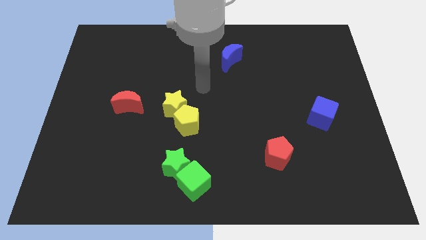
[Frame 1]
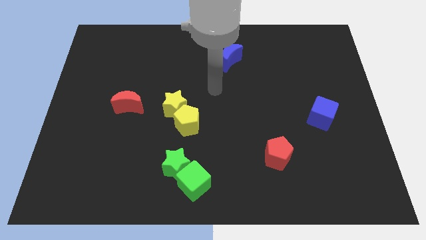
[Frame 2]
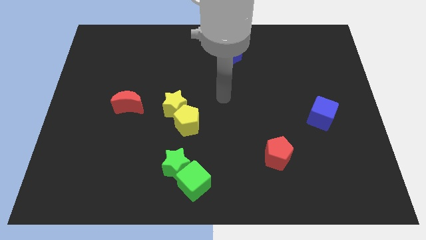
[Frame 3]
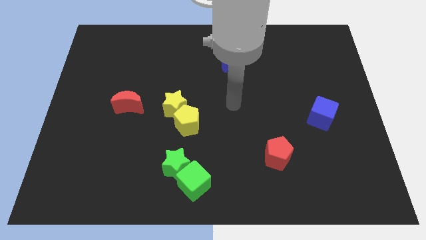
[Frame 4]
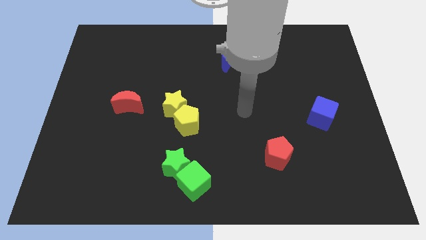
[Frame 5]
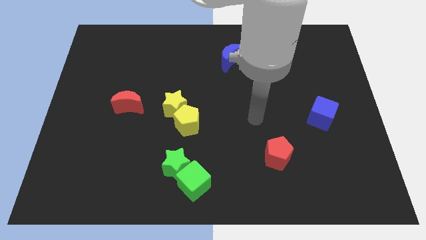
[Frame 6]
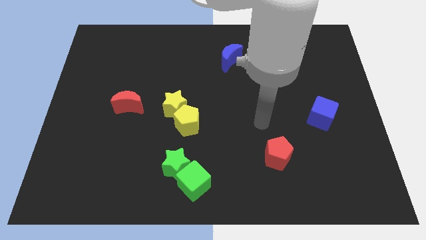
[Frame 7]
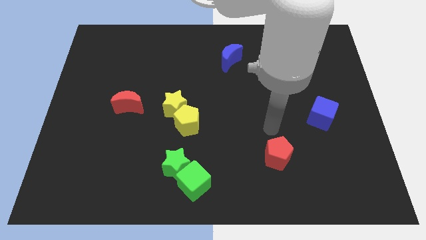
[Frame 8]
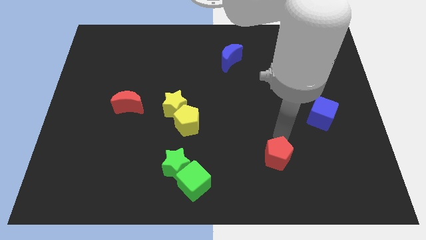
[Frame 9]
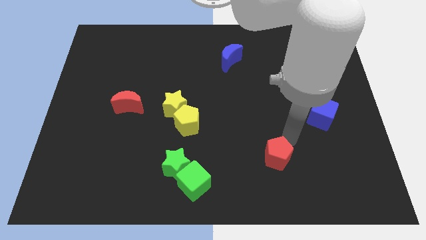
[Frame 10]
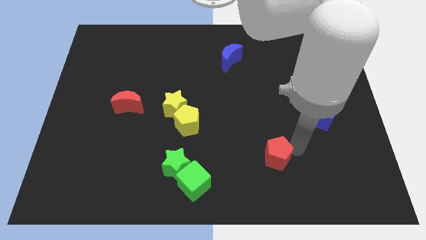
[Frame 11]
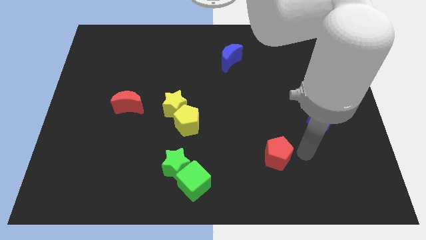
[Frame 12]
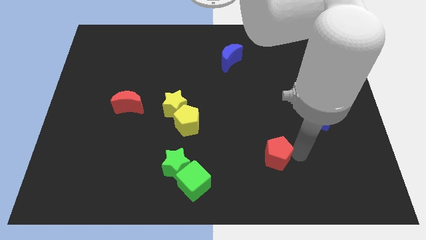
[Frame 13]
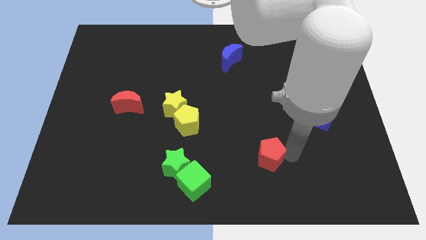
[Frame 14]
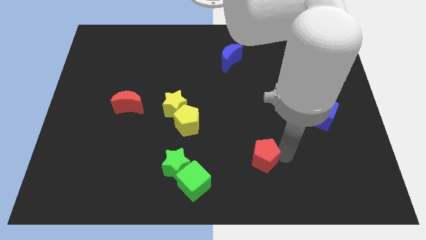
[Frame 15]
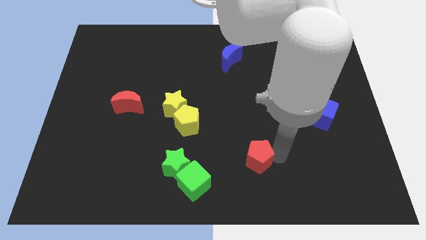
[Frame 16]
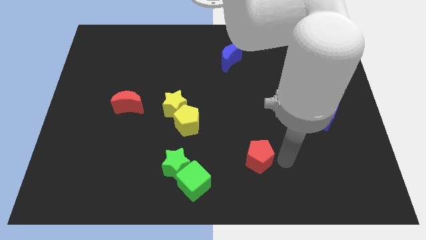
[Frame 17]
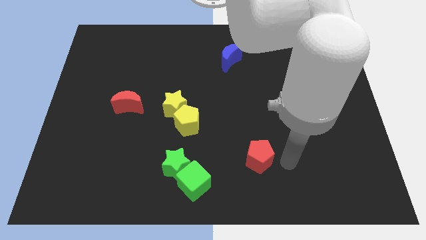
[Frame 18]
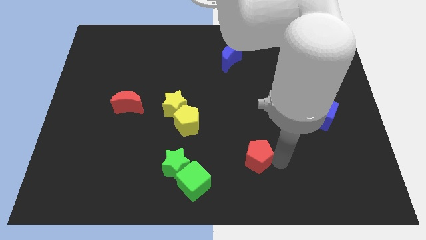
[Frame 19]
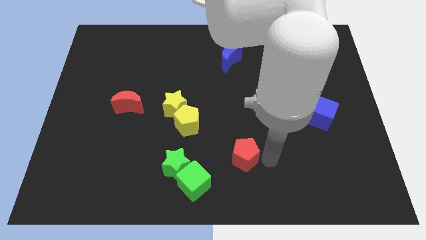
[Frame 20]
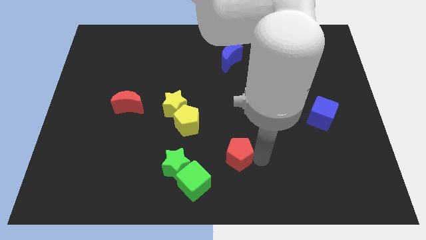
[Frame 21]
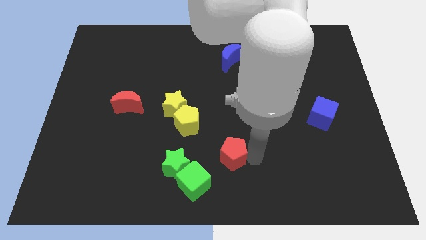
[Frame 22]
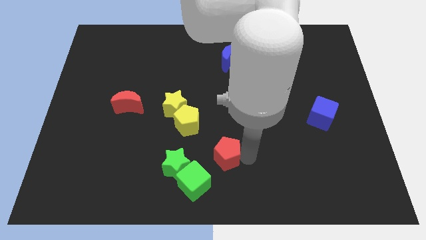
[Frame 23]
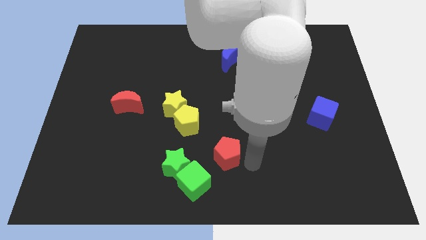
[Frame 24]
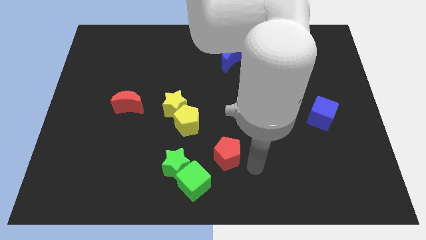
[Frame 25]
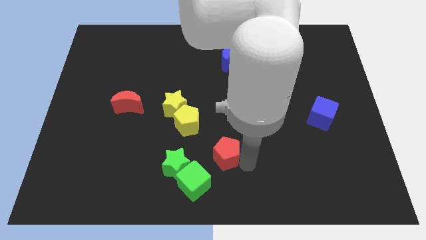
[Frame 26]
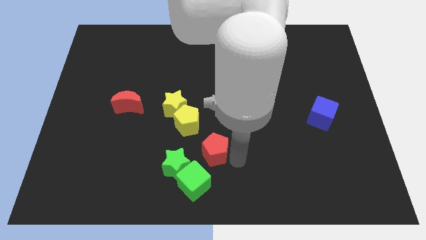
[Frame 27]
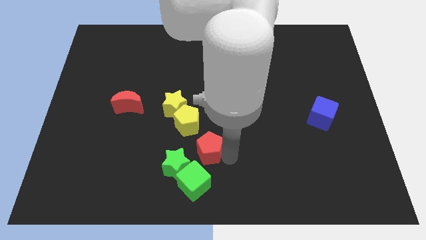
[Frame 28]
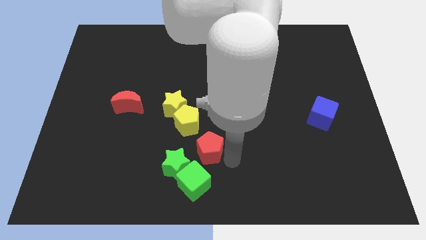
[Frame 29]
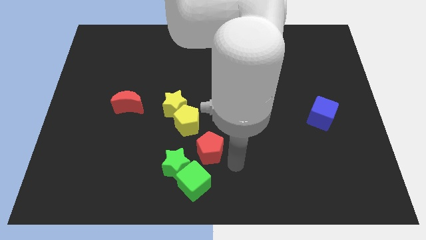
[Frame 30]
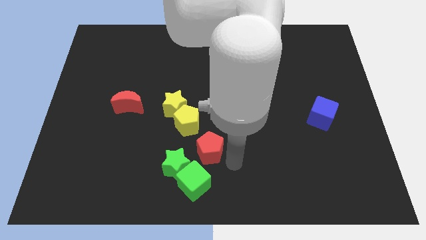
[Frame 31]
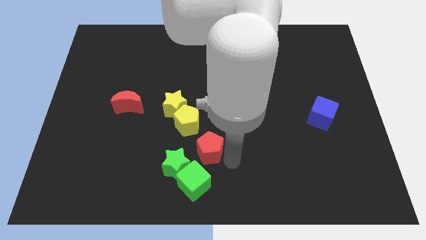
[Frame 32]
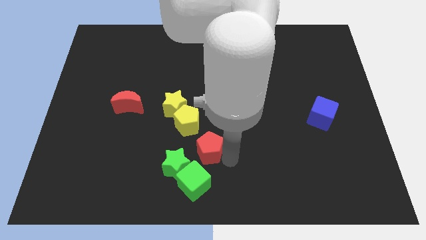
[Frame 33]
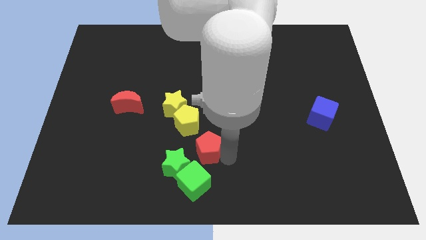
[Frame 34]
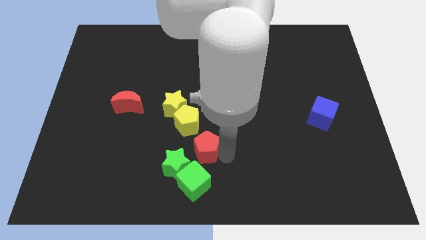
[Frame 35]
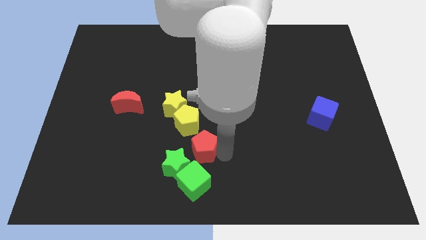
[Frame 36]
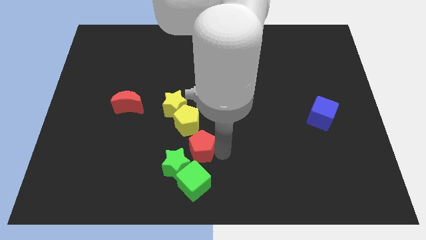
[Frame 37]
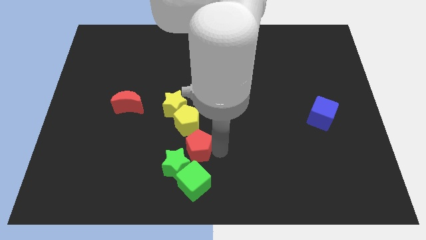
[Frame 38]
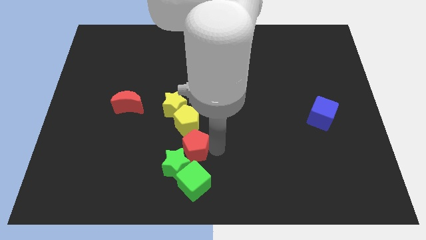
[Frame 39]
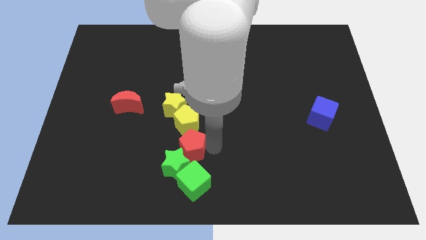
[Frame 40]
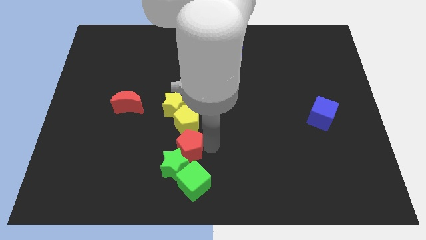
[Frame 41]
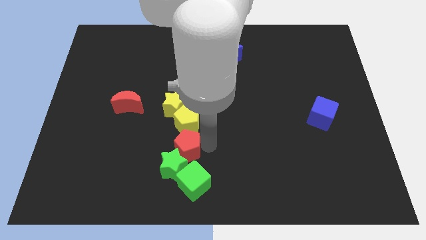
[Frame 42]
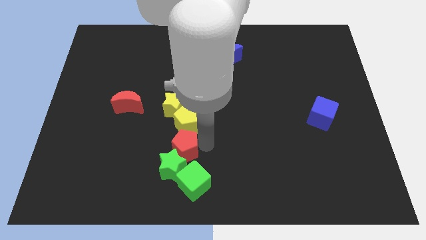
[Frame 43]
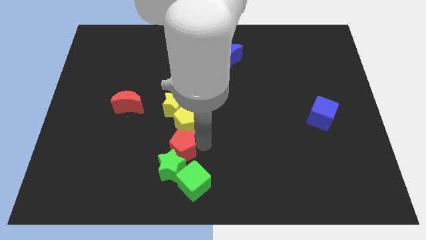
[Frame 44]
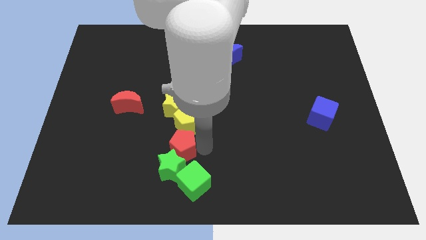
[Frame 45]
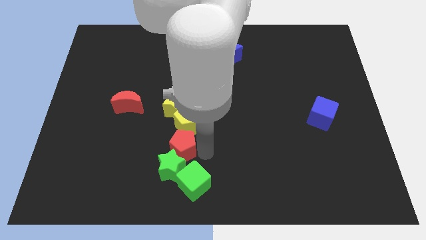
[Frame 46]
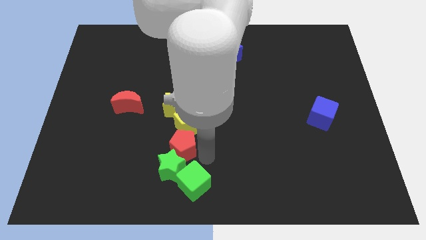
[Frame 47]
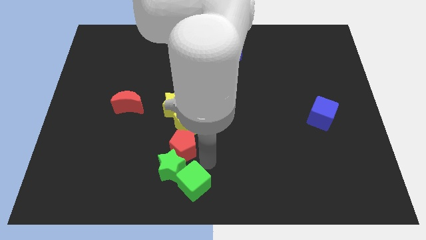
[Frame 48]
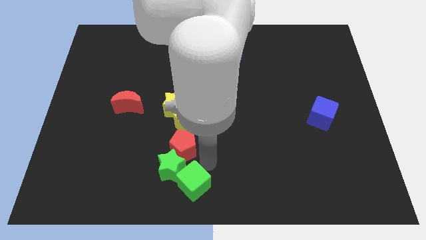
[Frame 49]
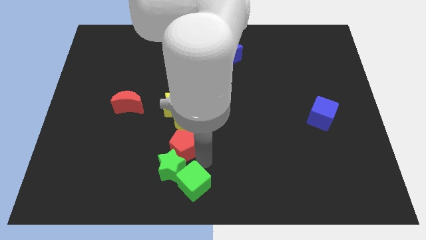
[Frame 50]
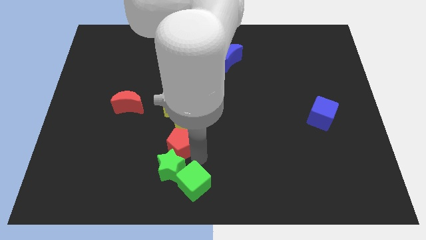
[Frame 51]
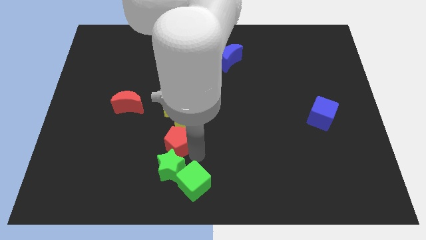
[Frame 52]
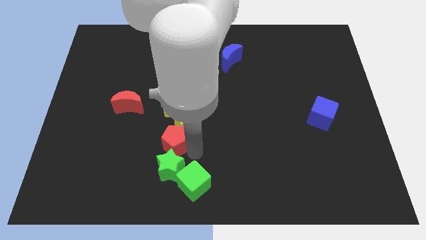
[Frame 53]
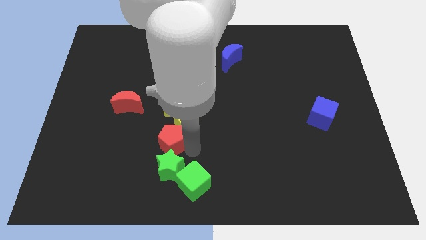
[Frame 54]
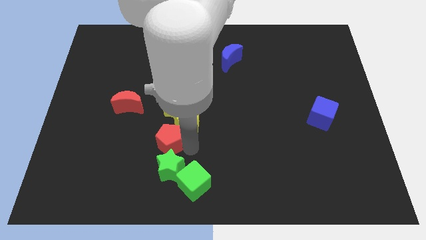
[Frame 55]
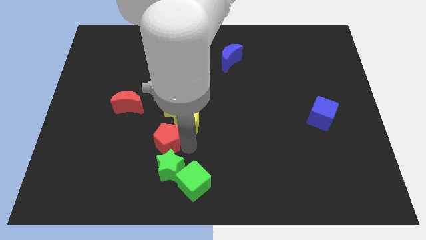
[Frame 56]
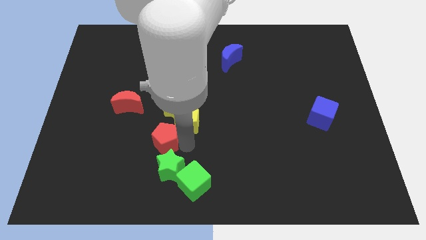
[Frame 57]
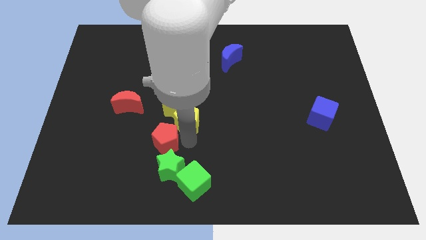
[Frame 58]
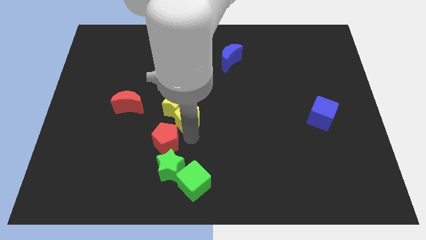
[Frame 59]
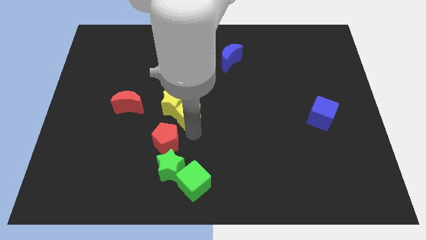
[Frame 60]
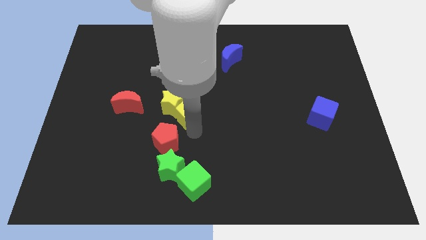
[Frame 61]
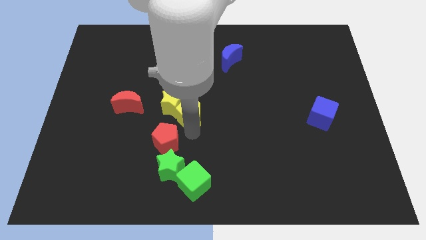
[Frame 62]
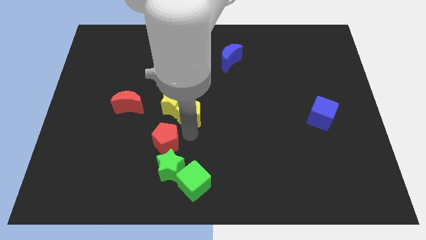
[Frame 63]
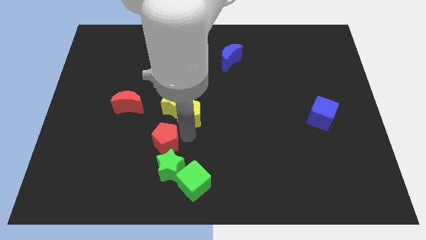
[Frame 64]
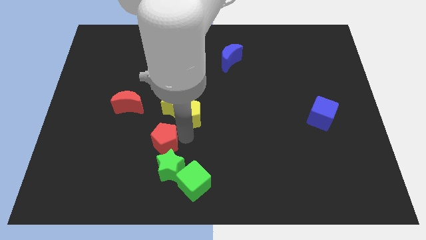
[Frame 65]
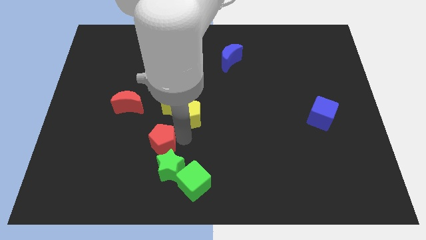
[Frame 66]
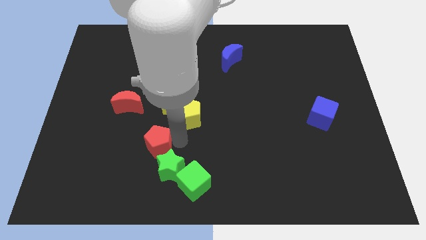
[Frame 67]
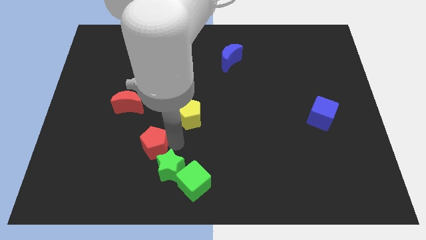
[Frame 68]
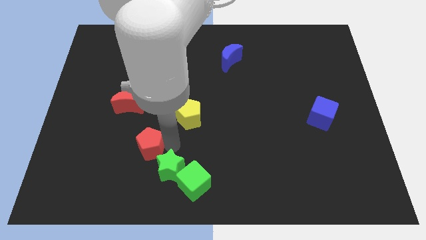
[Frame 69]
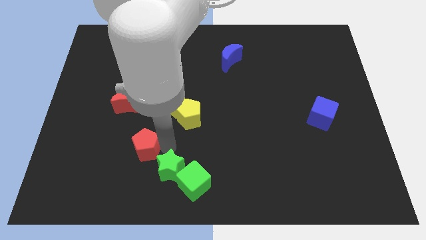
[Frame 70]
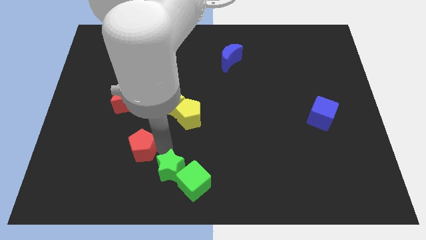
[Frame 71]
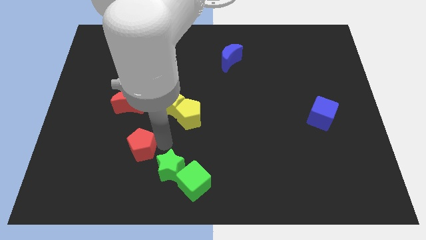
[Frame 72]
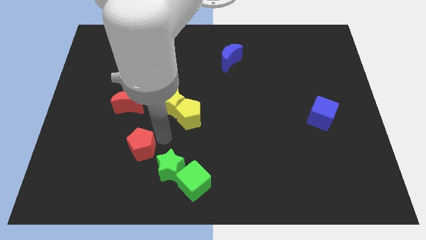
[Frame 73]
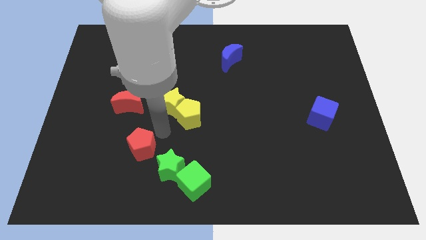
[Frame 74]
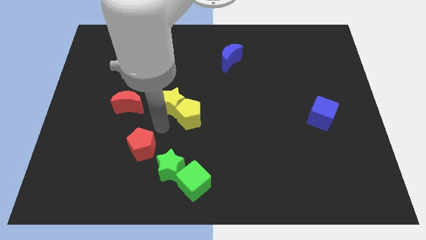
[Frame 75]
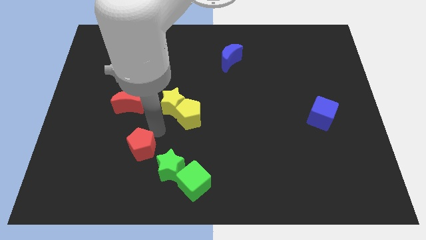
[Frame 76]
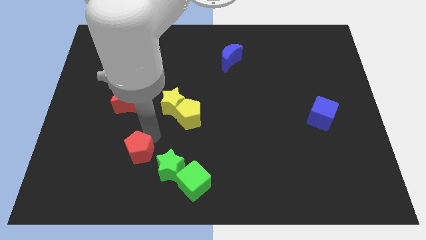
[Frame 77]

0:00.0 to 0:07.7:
put the red pentagon just left of the green star
